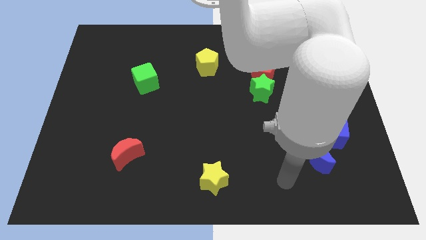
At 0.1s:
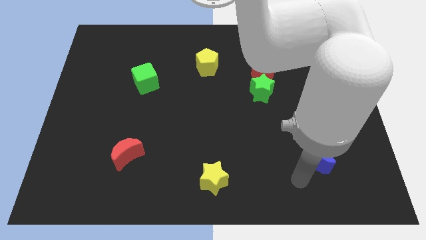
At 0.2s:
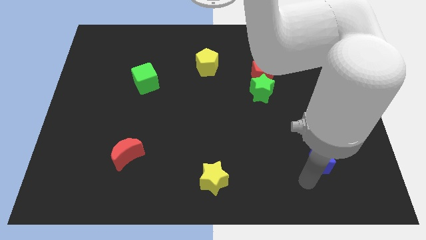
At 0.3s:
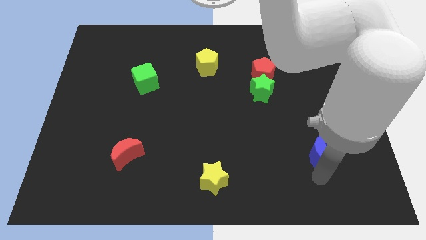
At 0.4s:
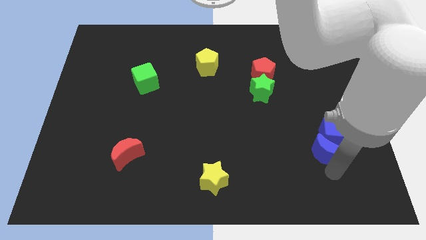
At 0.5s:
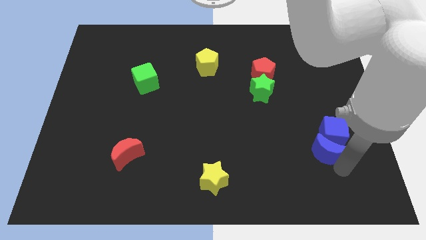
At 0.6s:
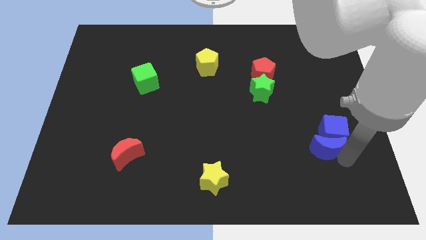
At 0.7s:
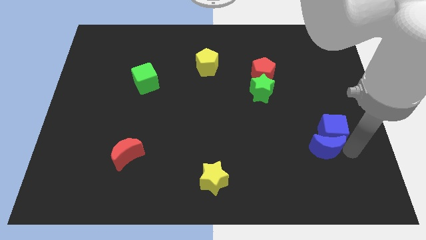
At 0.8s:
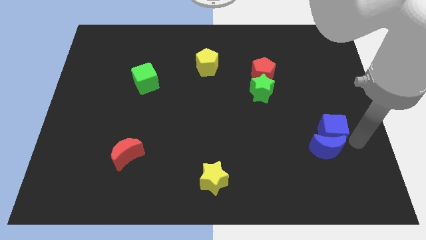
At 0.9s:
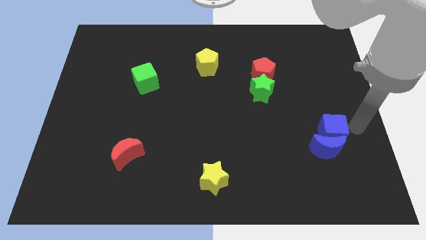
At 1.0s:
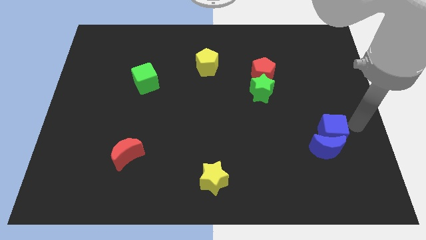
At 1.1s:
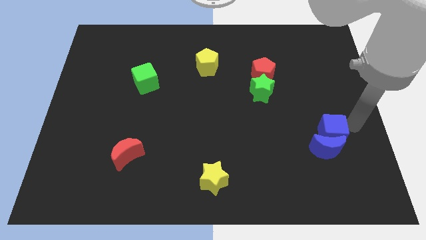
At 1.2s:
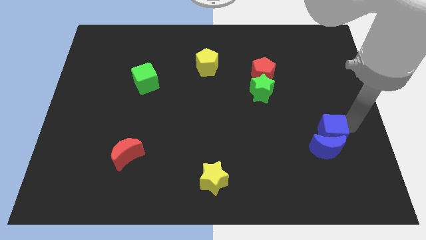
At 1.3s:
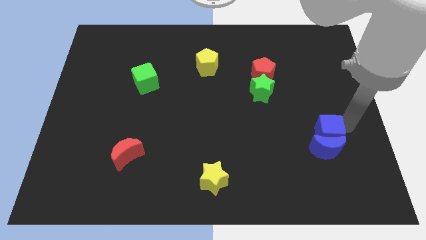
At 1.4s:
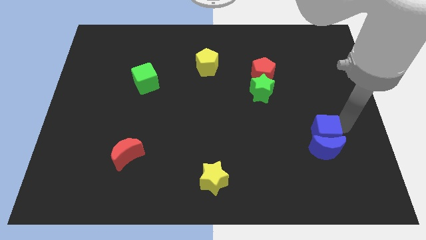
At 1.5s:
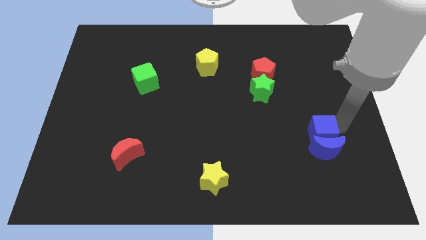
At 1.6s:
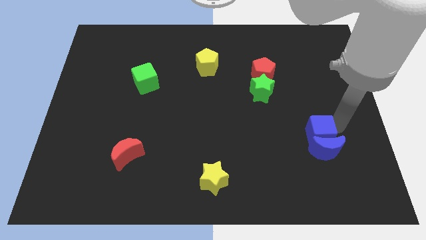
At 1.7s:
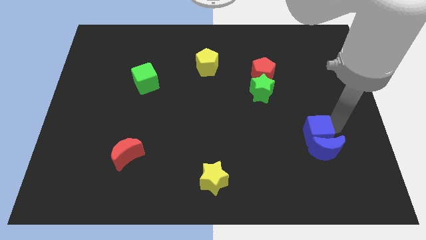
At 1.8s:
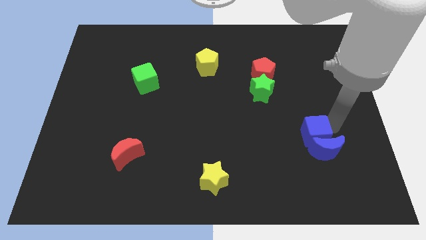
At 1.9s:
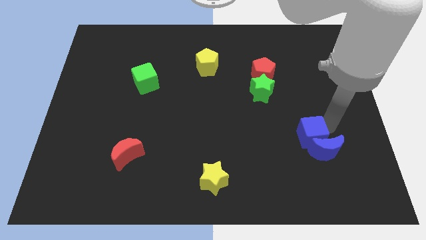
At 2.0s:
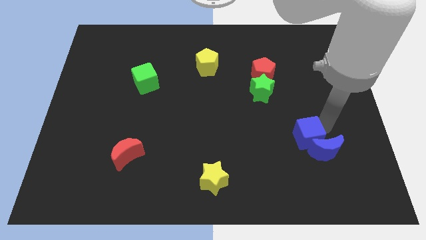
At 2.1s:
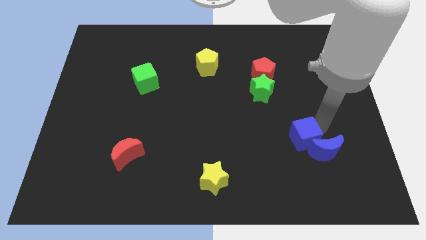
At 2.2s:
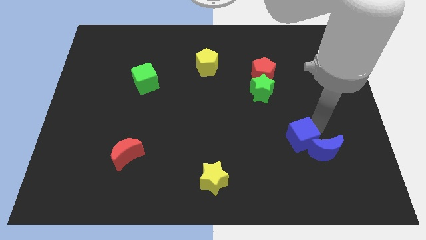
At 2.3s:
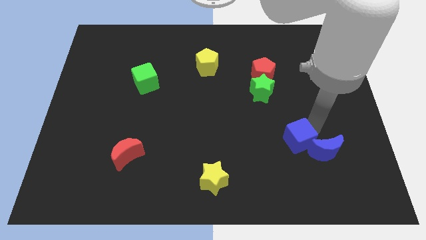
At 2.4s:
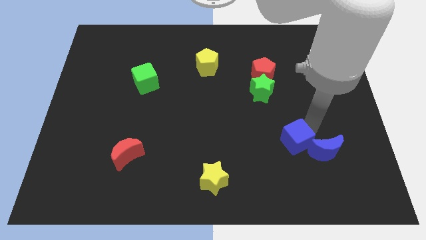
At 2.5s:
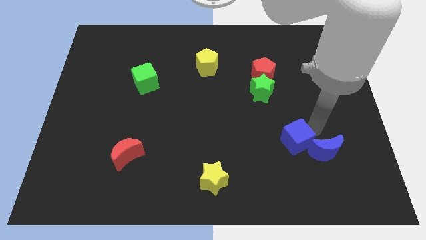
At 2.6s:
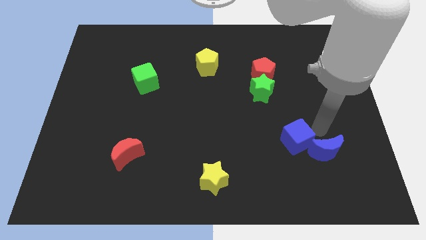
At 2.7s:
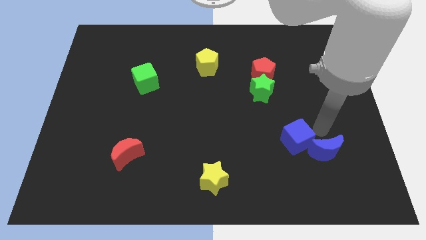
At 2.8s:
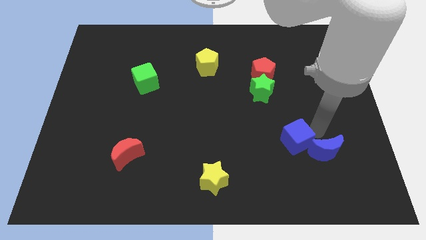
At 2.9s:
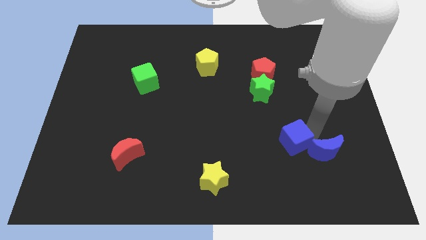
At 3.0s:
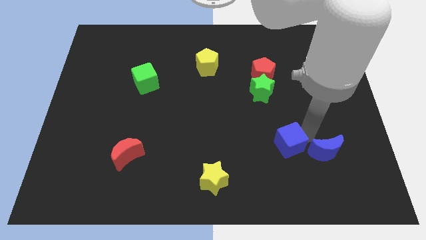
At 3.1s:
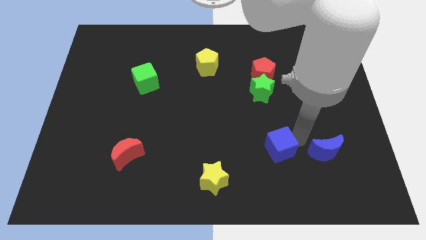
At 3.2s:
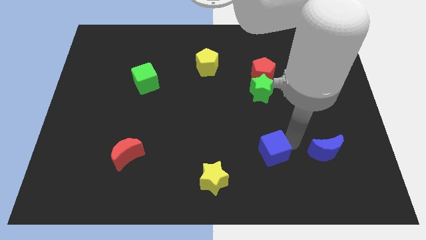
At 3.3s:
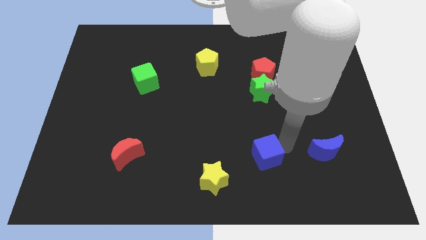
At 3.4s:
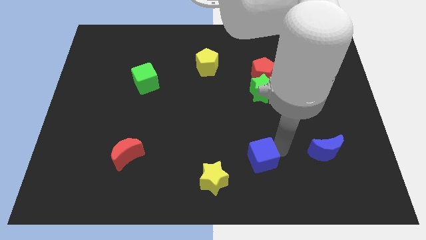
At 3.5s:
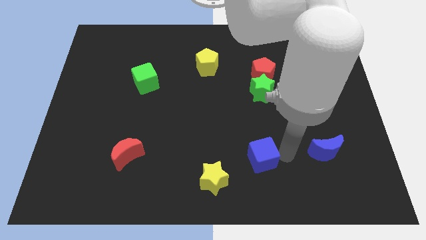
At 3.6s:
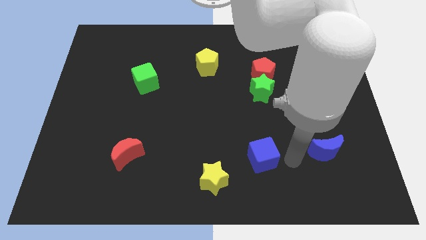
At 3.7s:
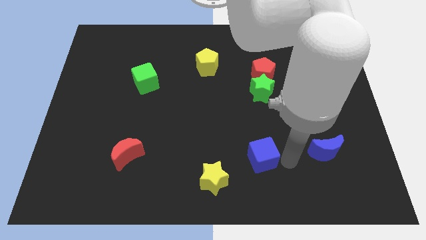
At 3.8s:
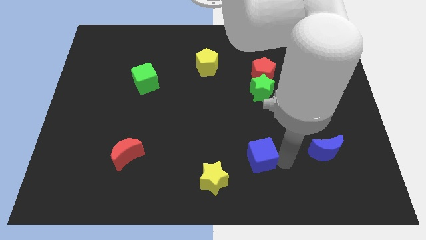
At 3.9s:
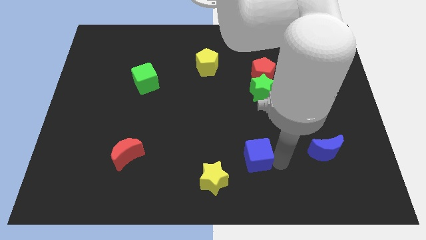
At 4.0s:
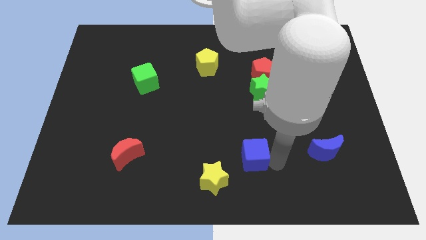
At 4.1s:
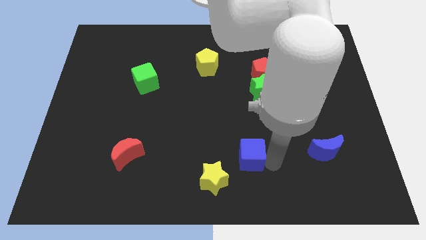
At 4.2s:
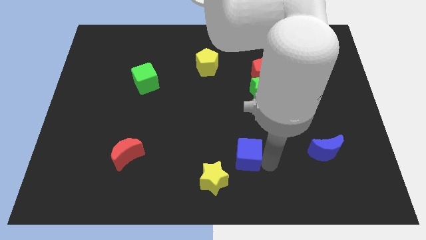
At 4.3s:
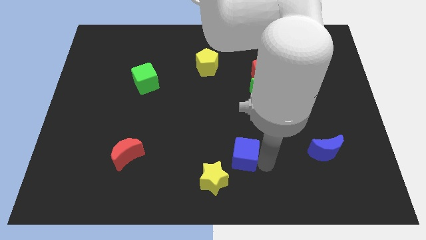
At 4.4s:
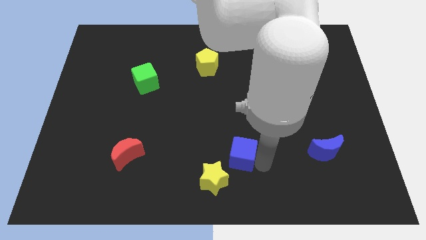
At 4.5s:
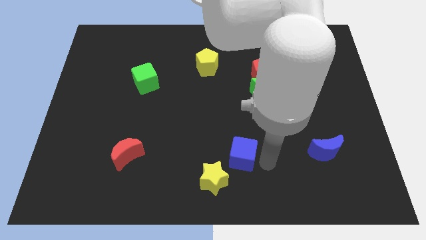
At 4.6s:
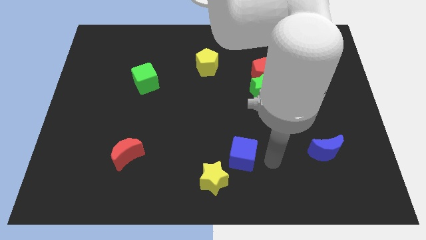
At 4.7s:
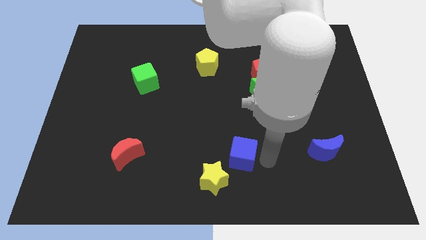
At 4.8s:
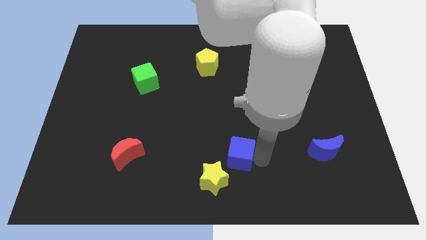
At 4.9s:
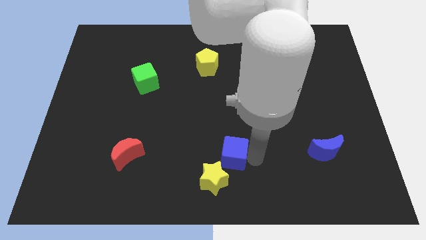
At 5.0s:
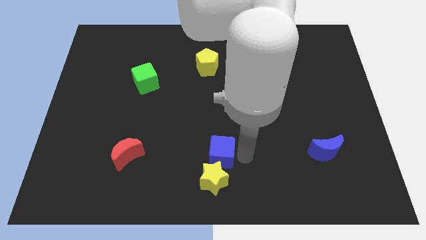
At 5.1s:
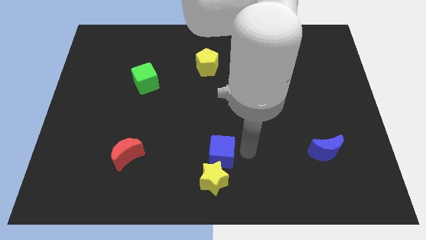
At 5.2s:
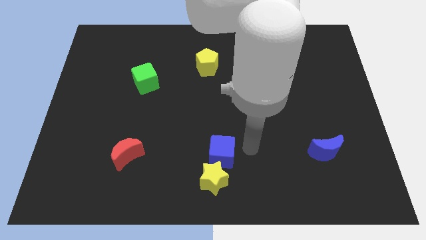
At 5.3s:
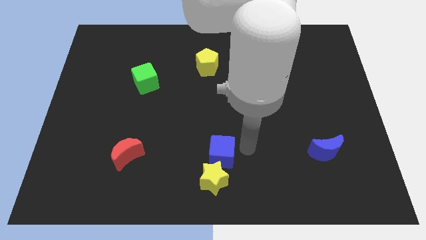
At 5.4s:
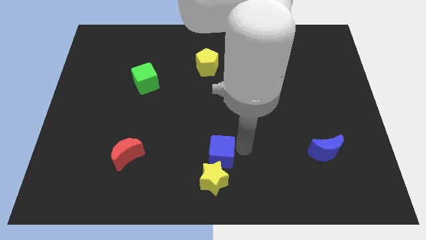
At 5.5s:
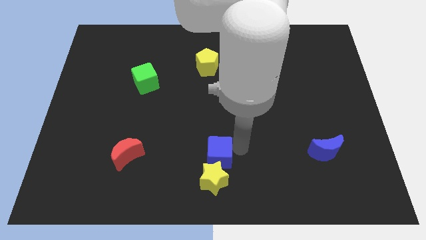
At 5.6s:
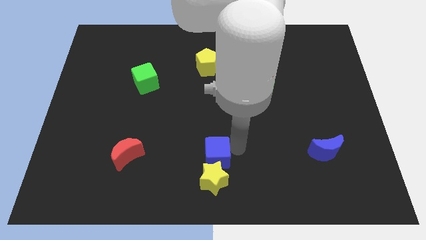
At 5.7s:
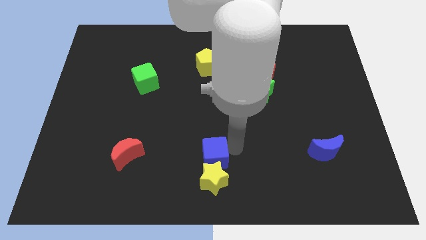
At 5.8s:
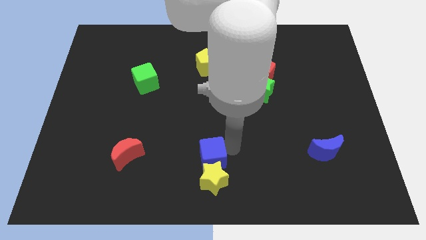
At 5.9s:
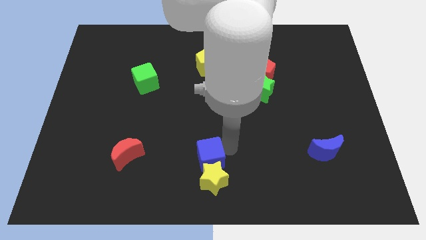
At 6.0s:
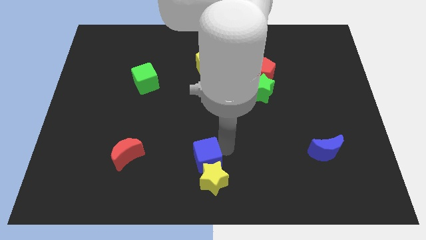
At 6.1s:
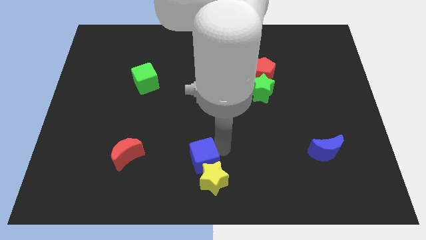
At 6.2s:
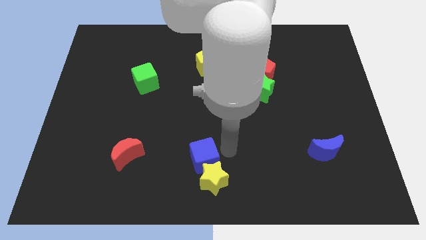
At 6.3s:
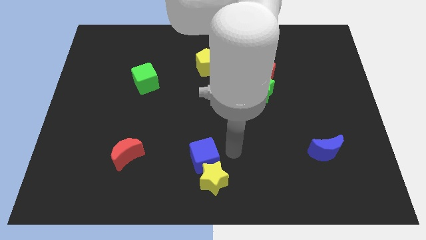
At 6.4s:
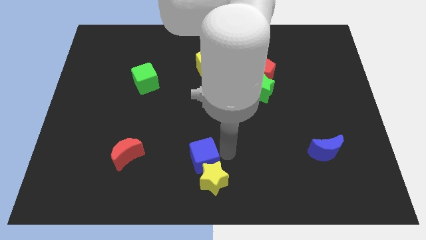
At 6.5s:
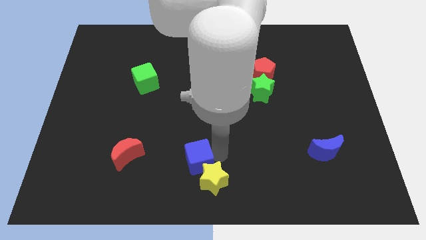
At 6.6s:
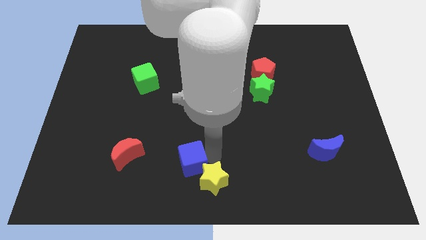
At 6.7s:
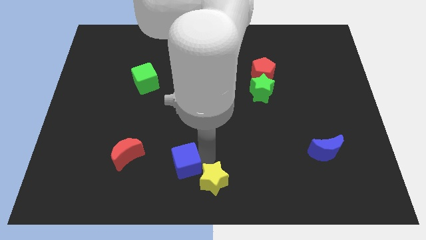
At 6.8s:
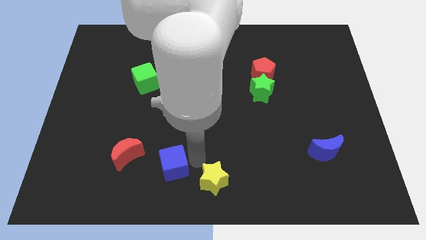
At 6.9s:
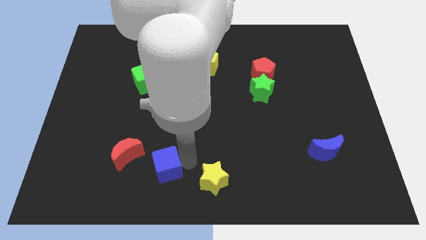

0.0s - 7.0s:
put the blue cube to the bottom right side of the red moon

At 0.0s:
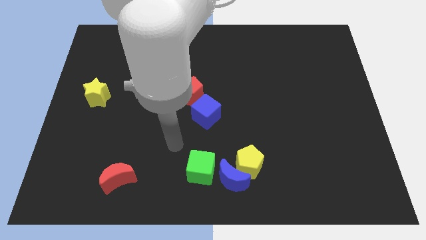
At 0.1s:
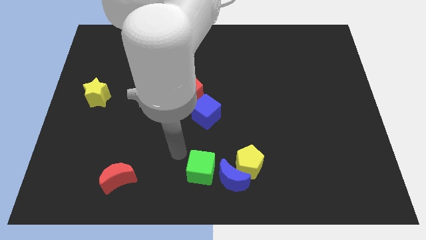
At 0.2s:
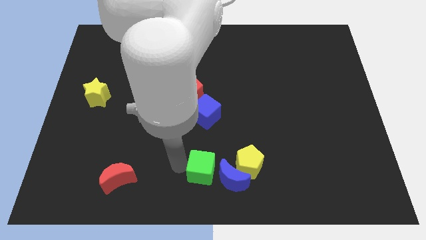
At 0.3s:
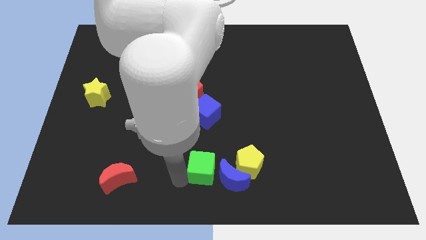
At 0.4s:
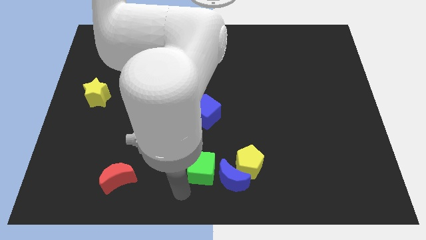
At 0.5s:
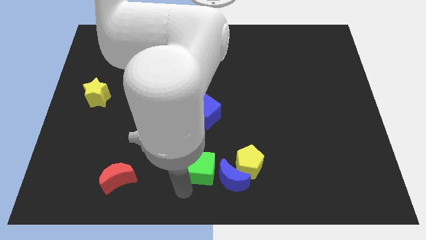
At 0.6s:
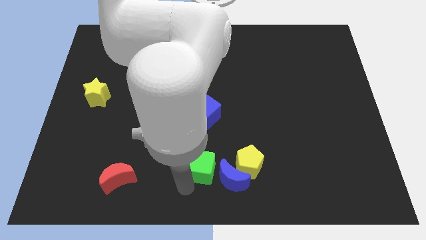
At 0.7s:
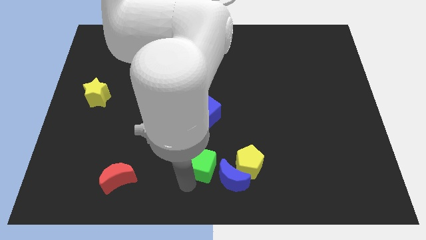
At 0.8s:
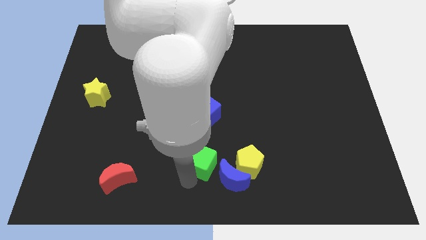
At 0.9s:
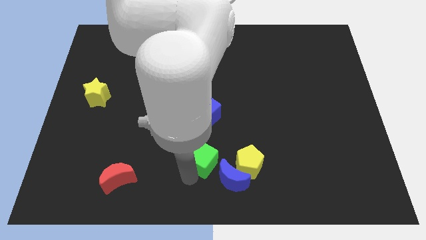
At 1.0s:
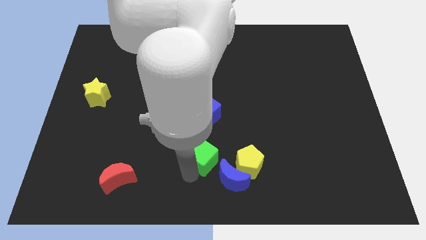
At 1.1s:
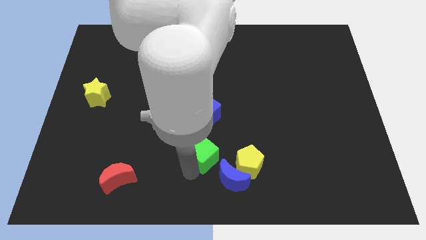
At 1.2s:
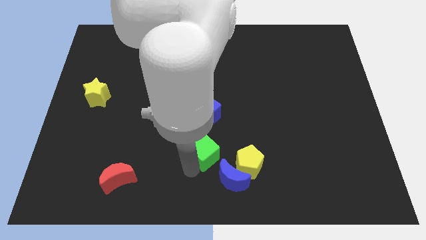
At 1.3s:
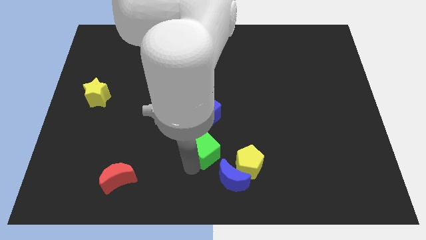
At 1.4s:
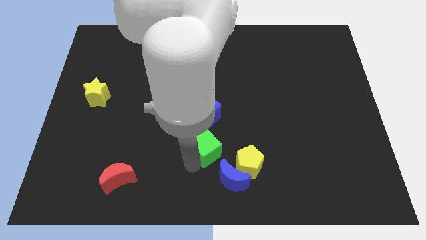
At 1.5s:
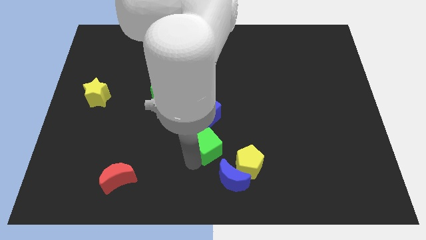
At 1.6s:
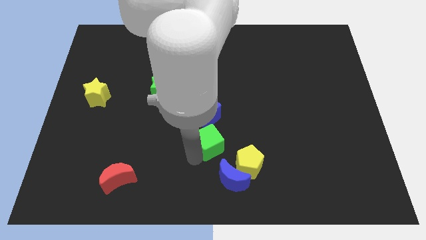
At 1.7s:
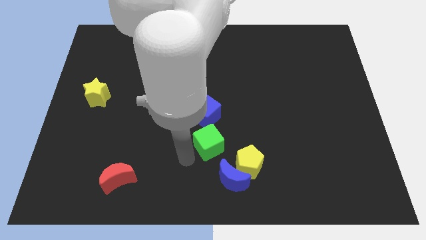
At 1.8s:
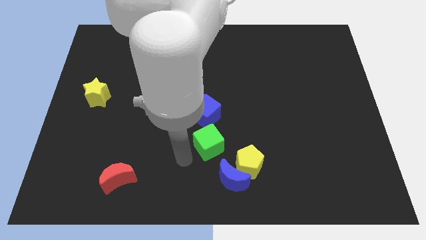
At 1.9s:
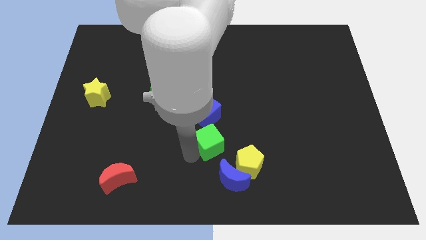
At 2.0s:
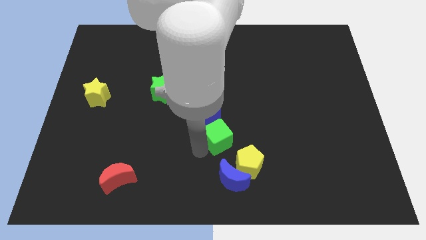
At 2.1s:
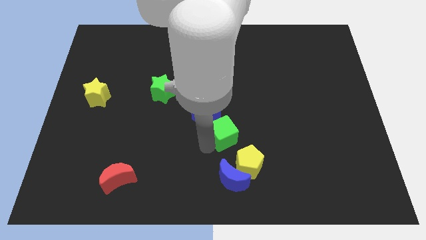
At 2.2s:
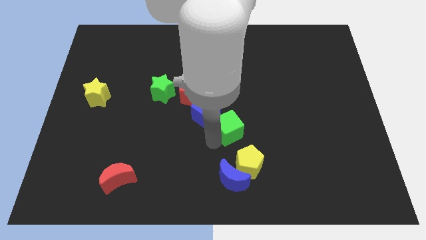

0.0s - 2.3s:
put the green cube to the top side of the yellow pentagon
